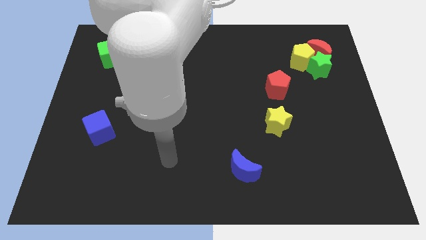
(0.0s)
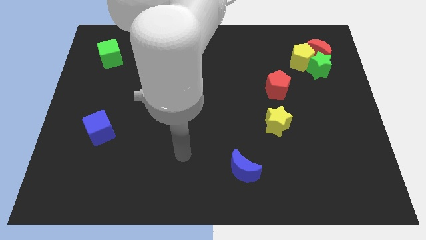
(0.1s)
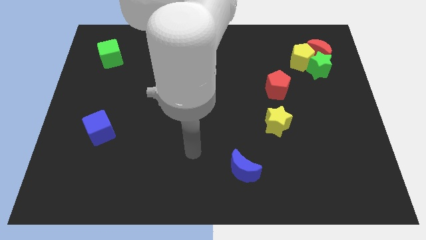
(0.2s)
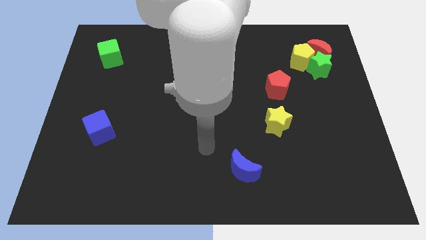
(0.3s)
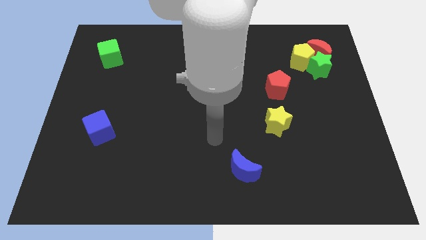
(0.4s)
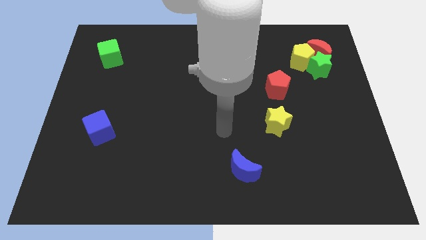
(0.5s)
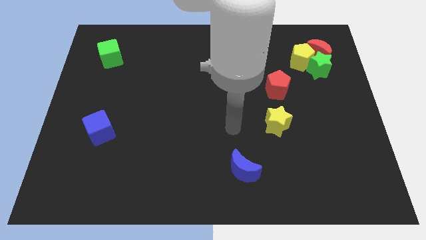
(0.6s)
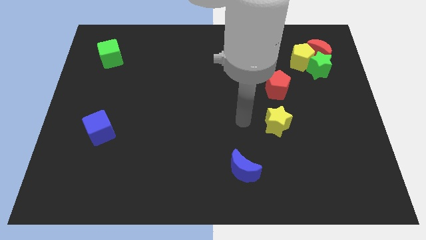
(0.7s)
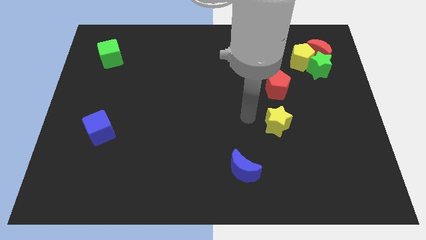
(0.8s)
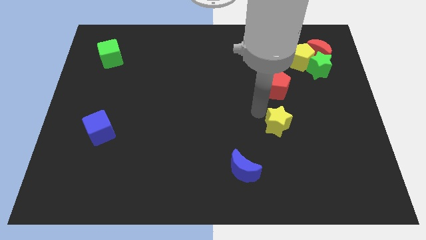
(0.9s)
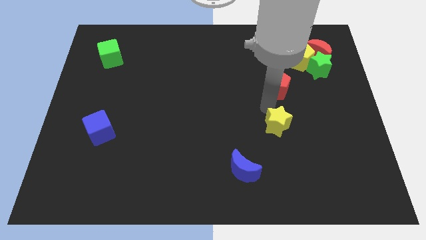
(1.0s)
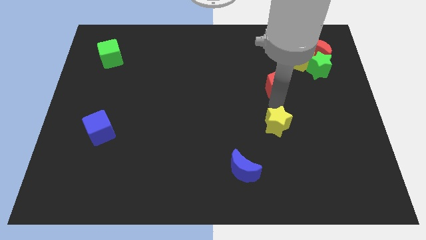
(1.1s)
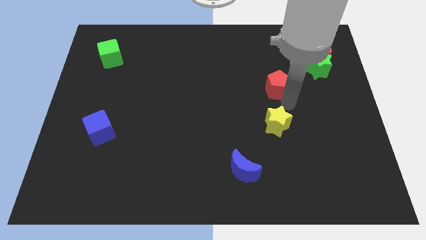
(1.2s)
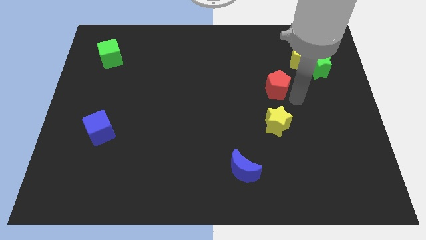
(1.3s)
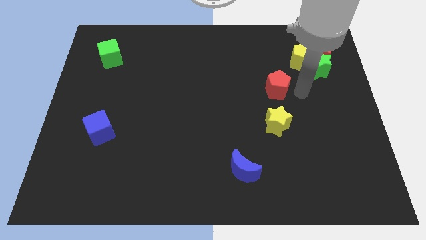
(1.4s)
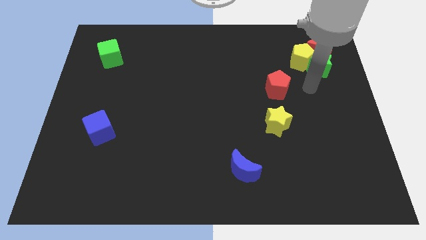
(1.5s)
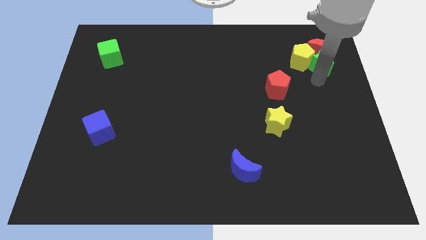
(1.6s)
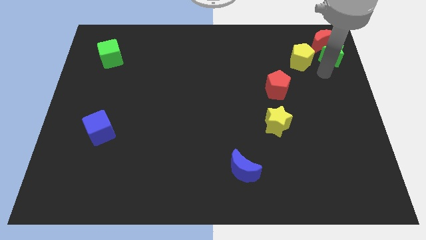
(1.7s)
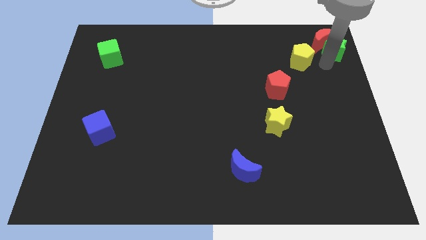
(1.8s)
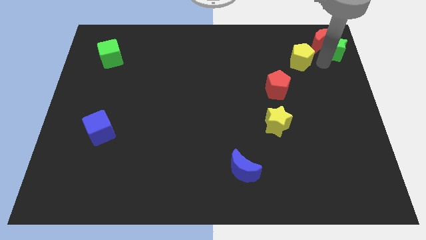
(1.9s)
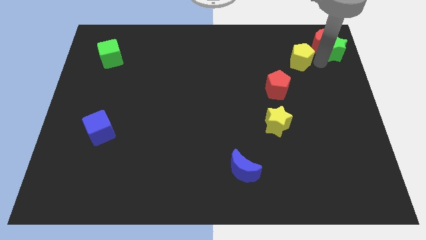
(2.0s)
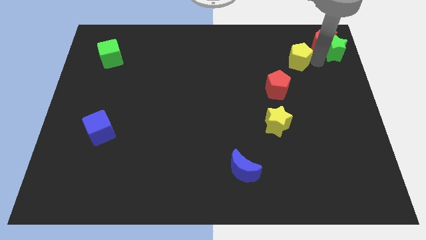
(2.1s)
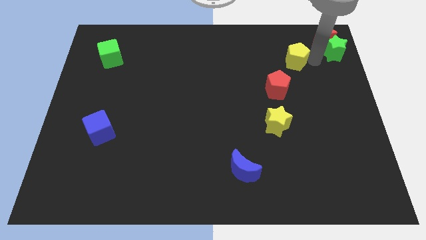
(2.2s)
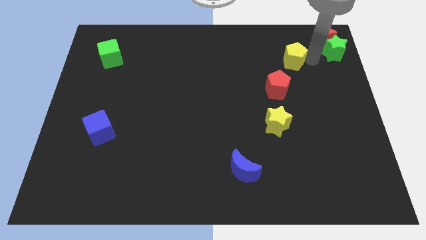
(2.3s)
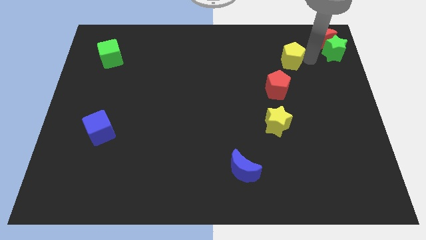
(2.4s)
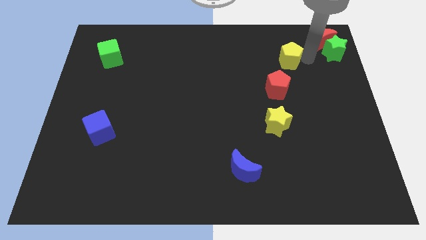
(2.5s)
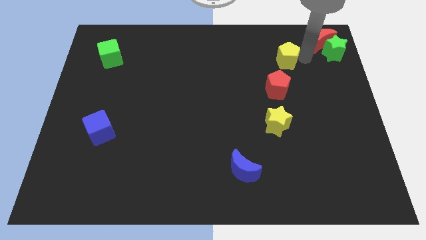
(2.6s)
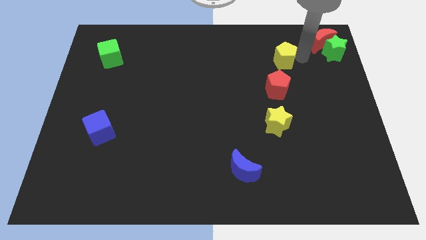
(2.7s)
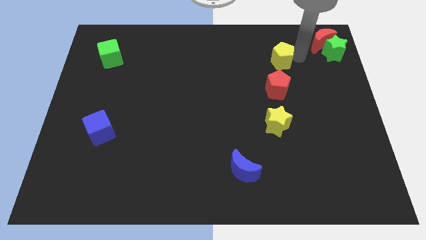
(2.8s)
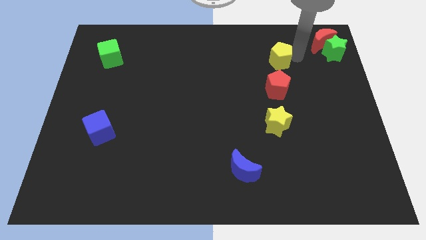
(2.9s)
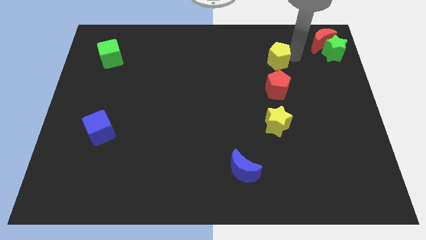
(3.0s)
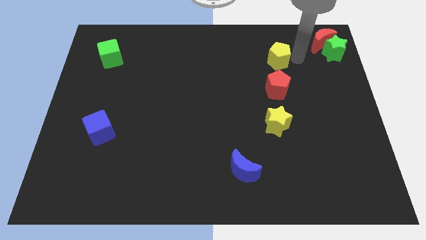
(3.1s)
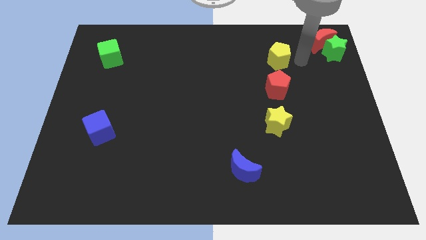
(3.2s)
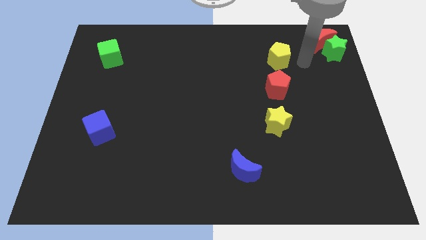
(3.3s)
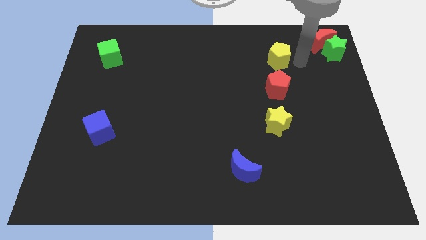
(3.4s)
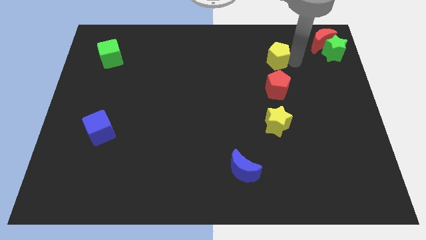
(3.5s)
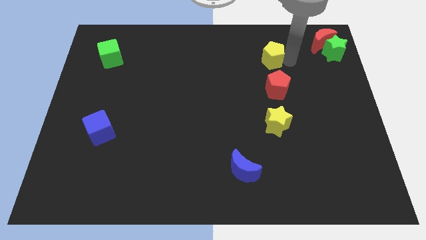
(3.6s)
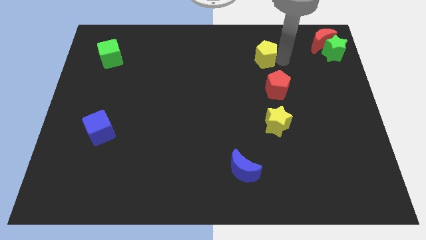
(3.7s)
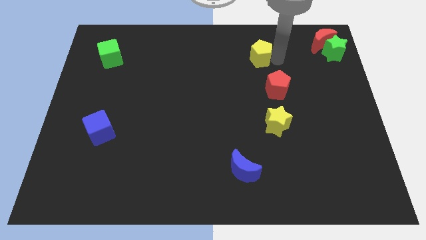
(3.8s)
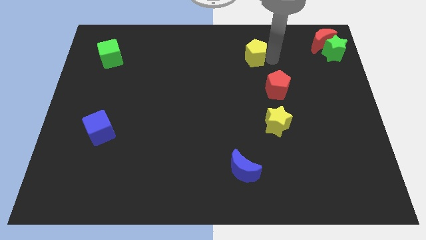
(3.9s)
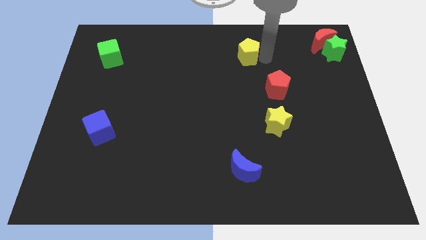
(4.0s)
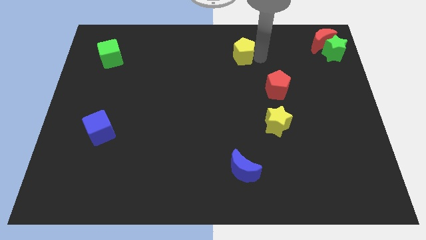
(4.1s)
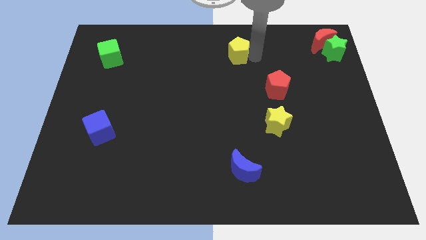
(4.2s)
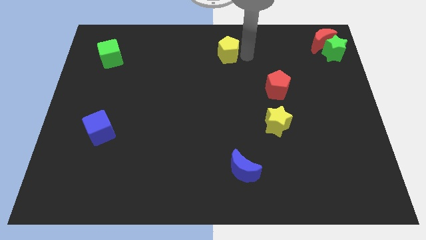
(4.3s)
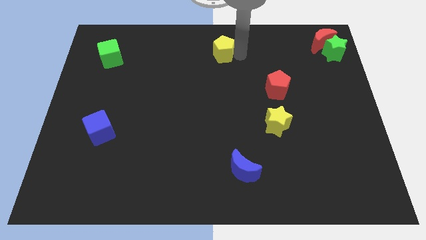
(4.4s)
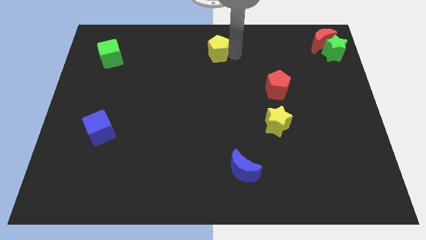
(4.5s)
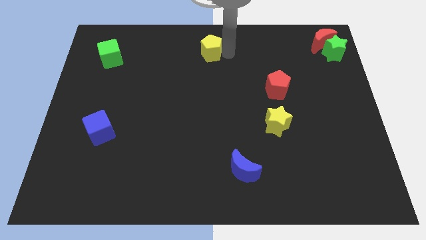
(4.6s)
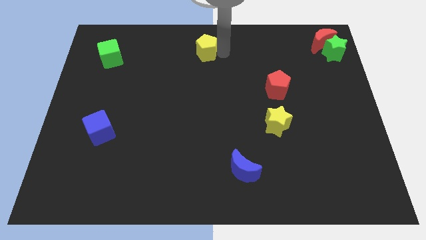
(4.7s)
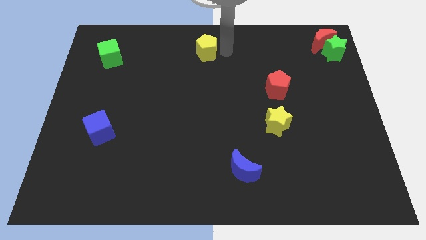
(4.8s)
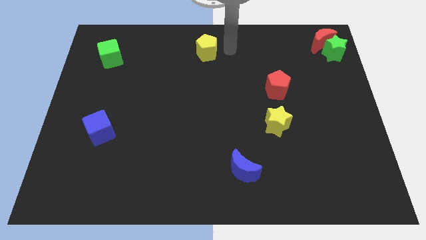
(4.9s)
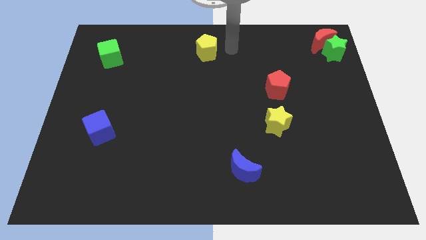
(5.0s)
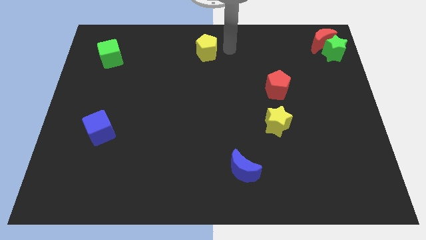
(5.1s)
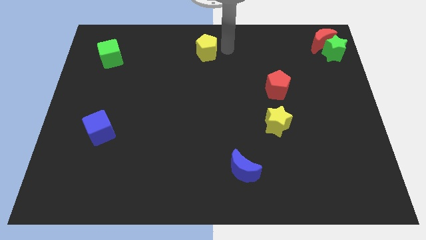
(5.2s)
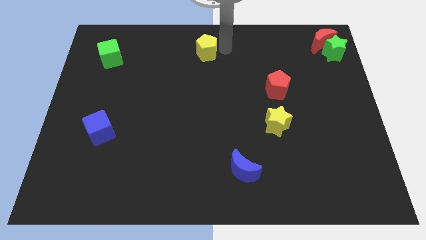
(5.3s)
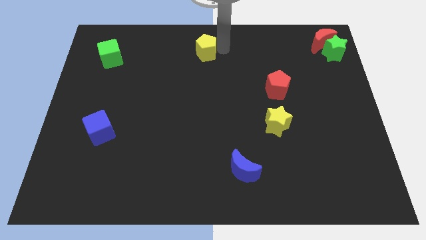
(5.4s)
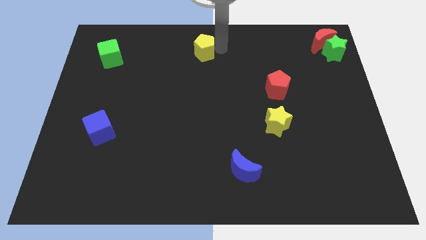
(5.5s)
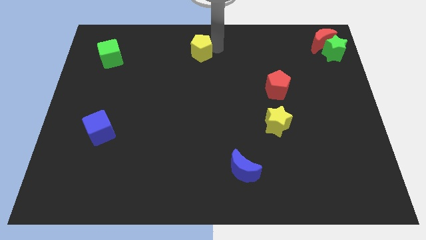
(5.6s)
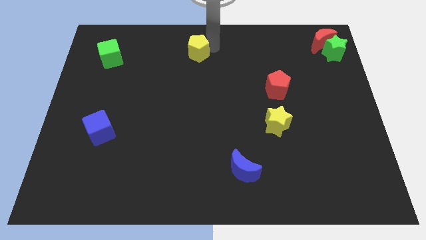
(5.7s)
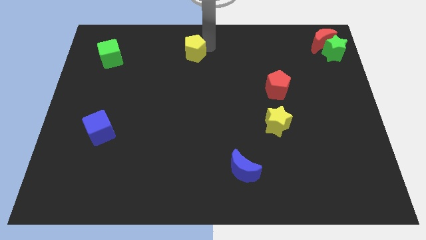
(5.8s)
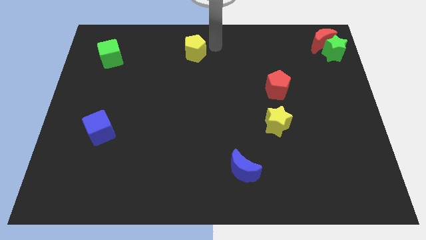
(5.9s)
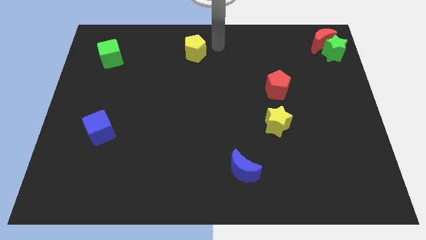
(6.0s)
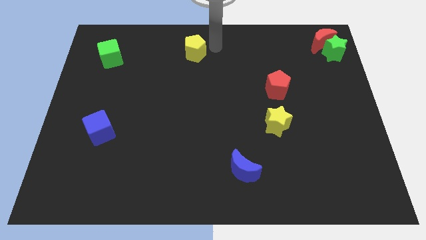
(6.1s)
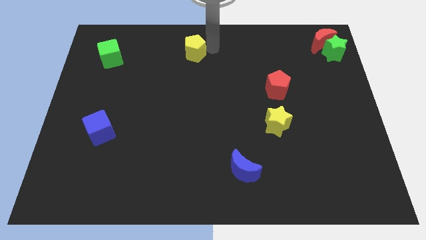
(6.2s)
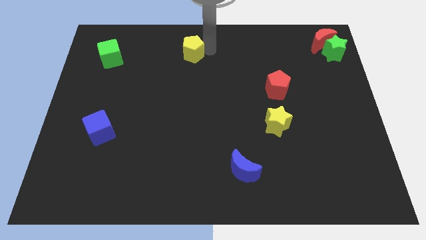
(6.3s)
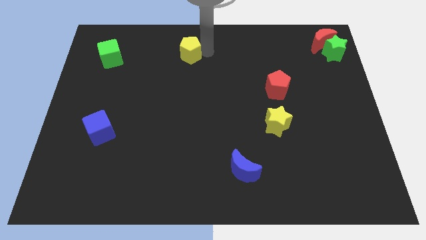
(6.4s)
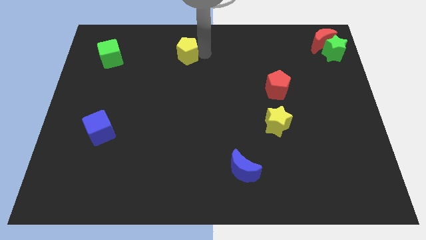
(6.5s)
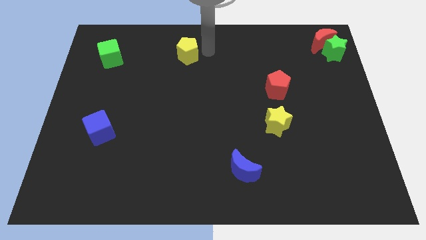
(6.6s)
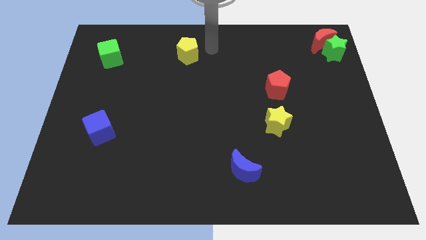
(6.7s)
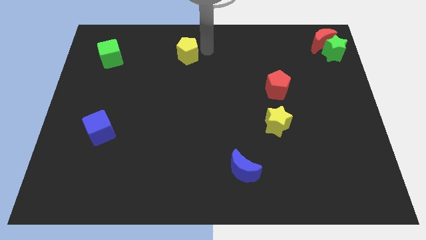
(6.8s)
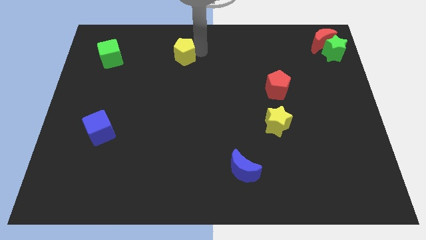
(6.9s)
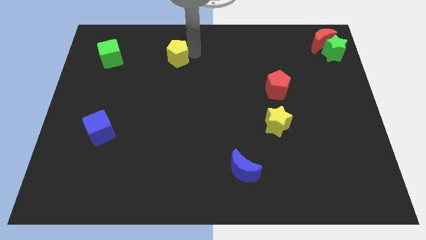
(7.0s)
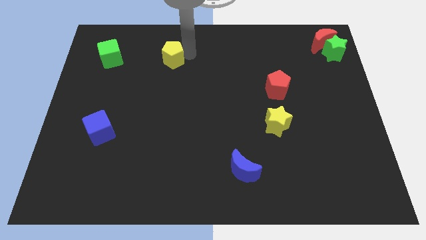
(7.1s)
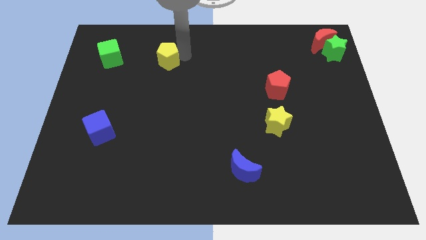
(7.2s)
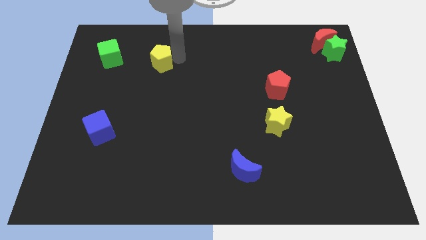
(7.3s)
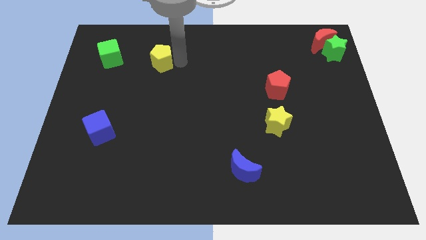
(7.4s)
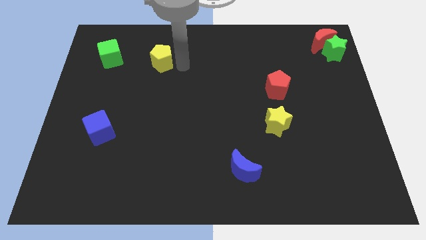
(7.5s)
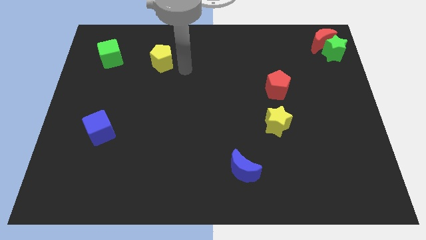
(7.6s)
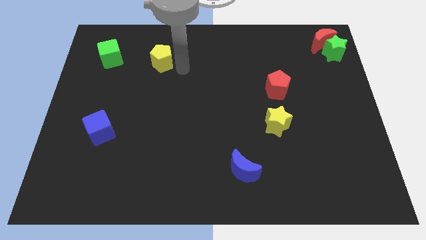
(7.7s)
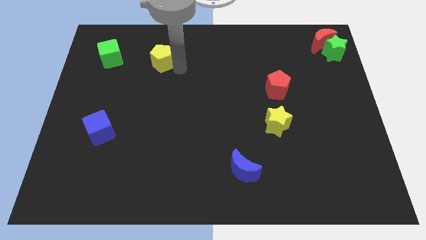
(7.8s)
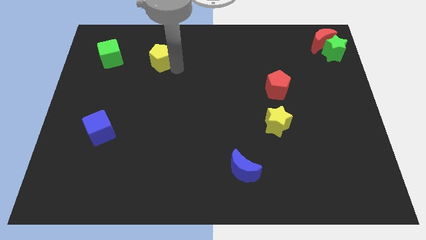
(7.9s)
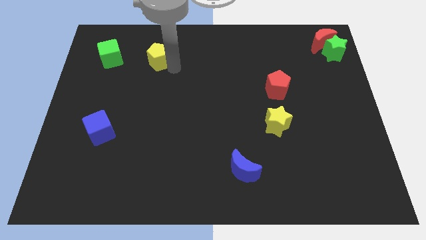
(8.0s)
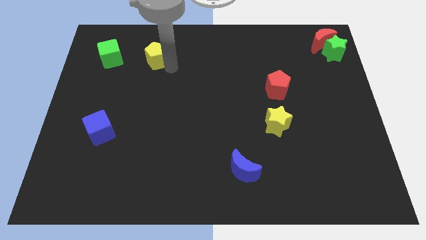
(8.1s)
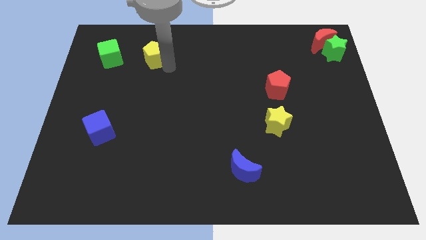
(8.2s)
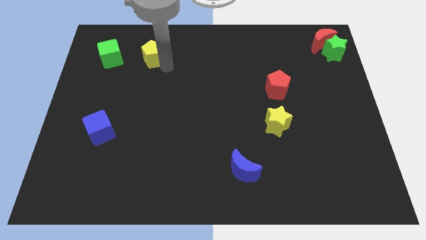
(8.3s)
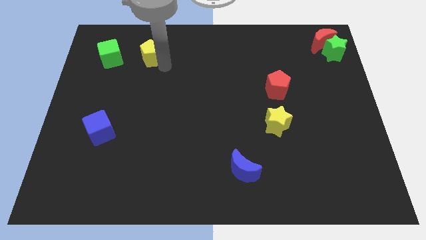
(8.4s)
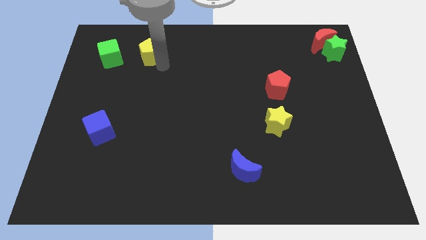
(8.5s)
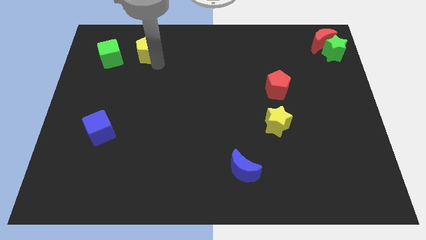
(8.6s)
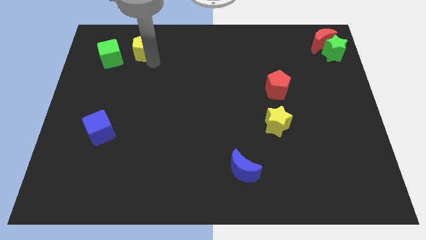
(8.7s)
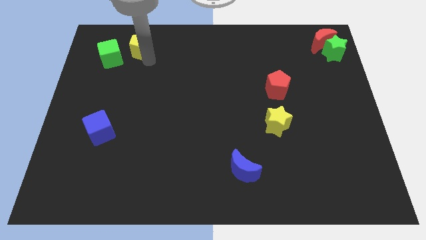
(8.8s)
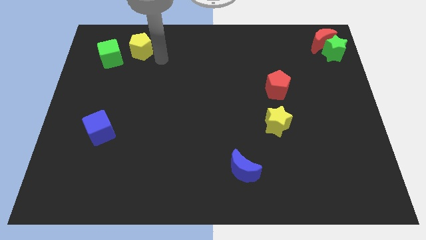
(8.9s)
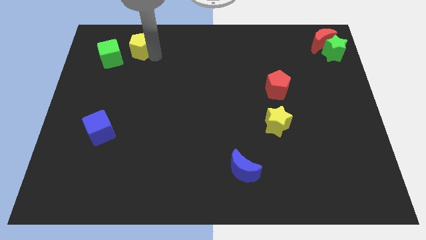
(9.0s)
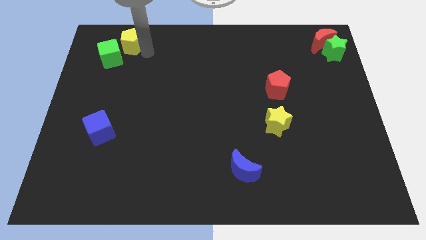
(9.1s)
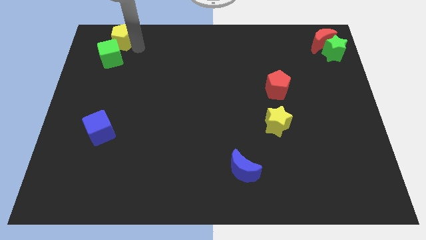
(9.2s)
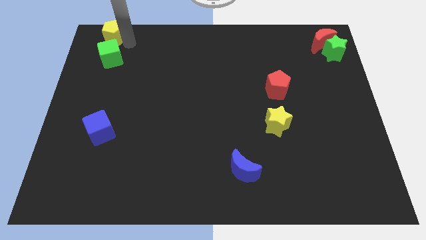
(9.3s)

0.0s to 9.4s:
slide the yellow pentagon to the upper left corner
